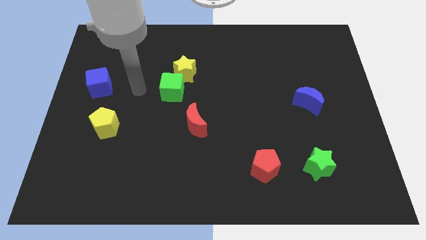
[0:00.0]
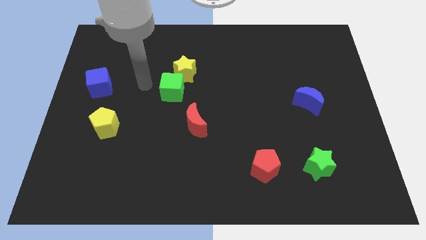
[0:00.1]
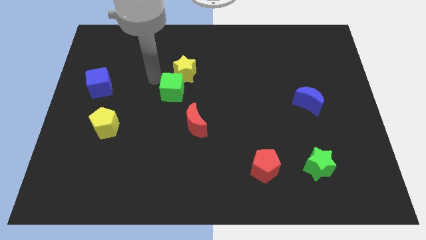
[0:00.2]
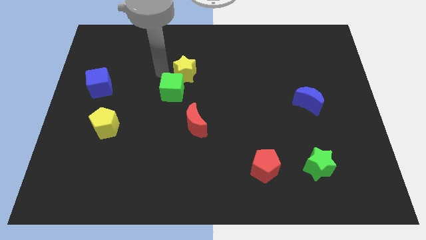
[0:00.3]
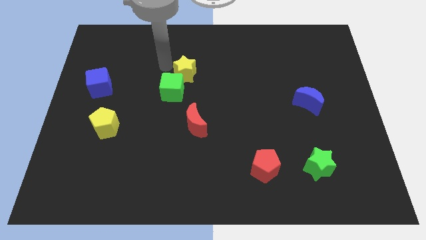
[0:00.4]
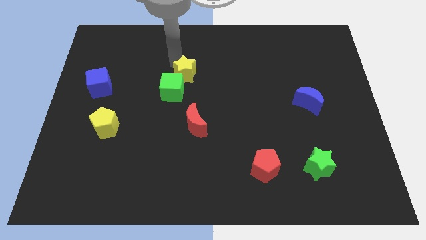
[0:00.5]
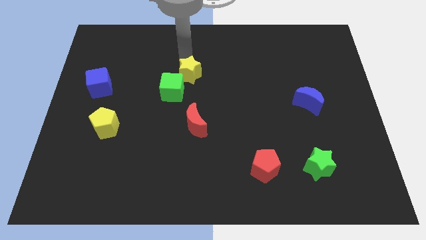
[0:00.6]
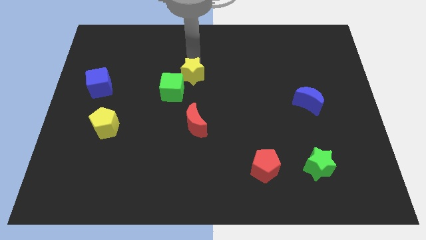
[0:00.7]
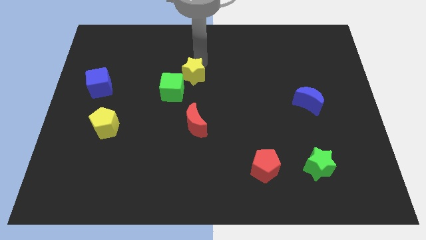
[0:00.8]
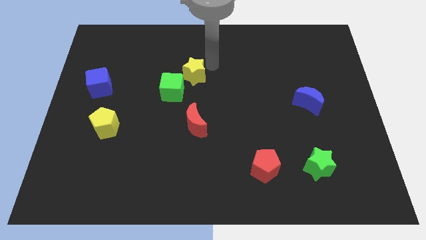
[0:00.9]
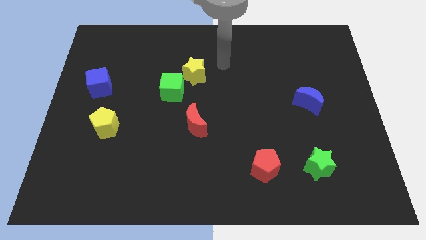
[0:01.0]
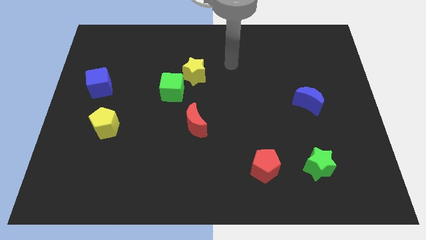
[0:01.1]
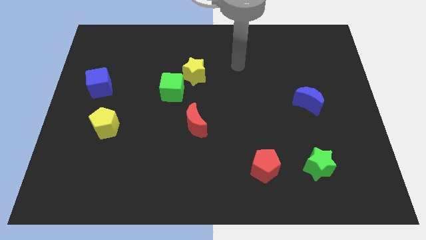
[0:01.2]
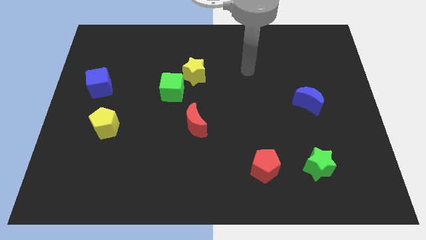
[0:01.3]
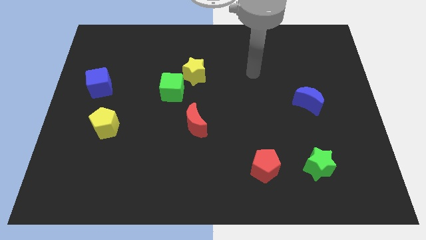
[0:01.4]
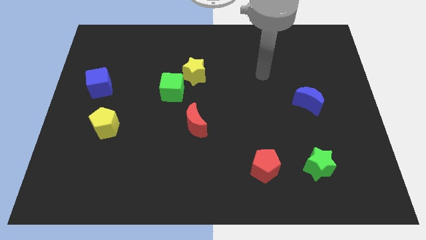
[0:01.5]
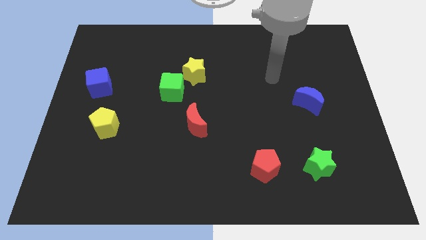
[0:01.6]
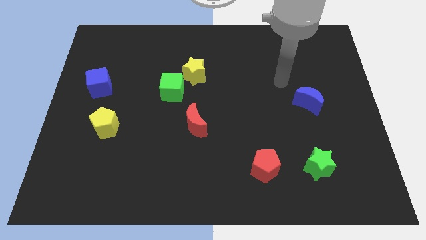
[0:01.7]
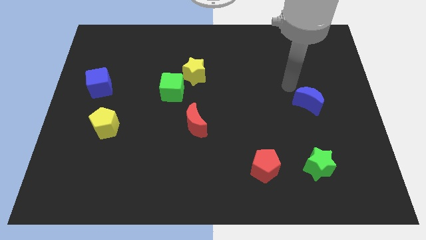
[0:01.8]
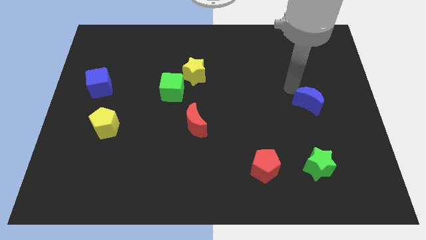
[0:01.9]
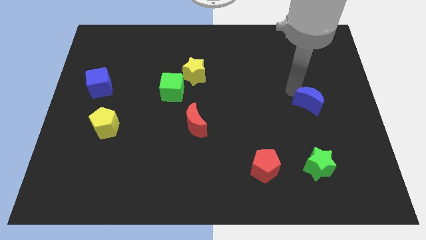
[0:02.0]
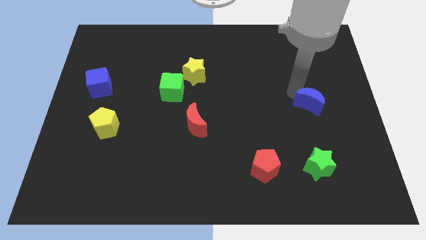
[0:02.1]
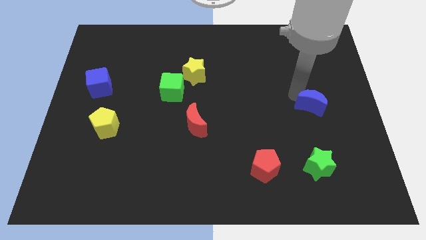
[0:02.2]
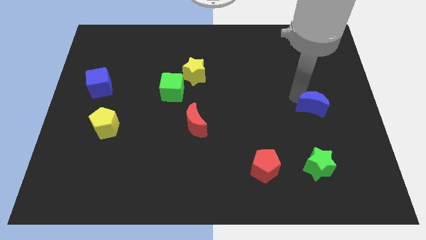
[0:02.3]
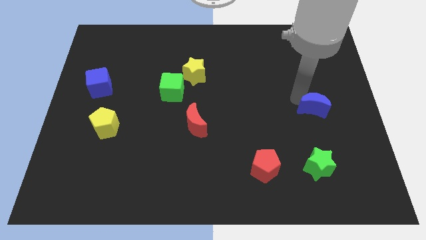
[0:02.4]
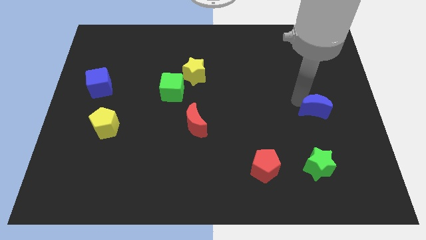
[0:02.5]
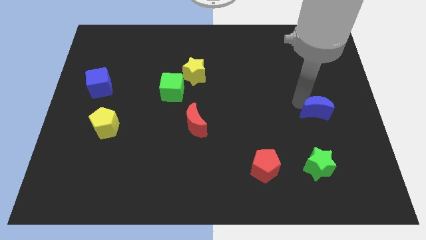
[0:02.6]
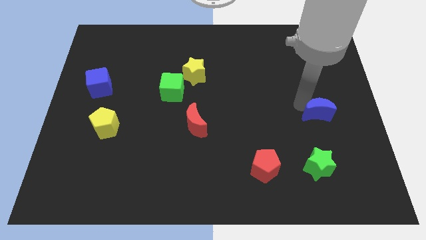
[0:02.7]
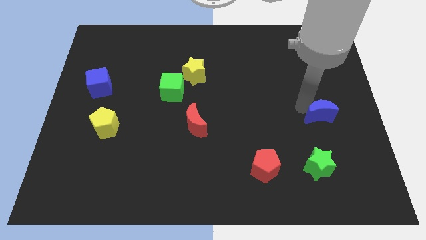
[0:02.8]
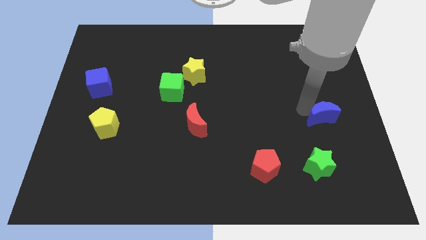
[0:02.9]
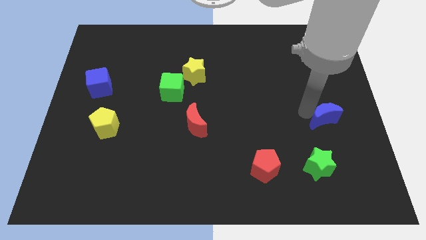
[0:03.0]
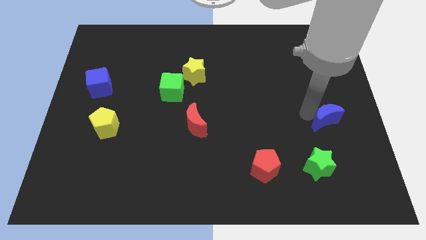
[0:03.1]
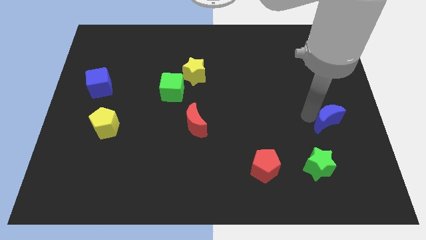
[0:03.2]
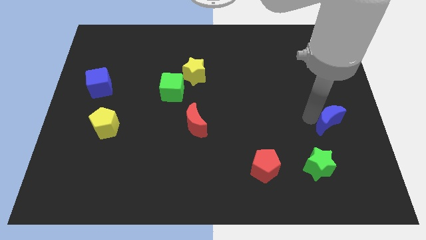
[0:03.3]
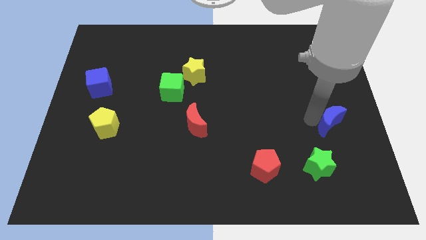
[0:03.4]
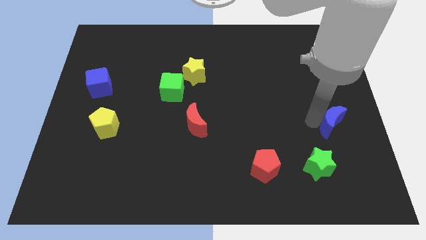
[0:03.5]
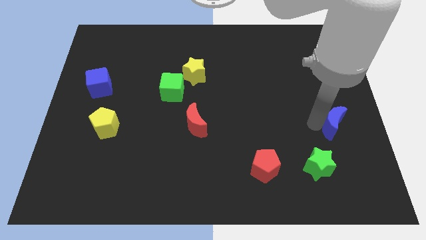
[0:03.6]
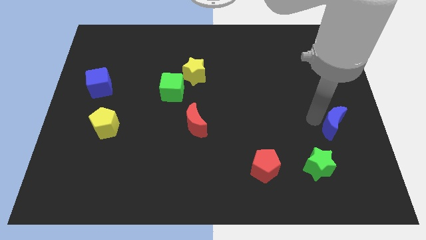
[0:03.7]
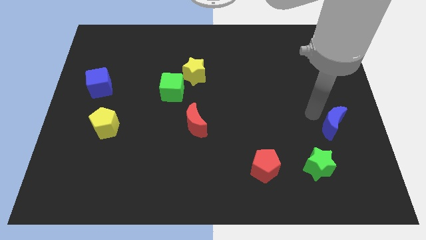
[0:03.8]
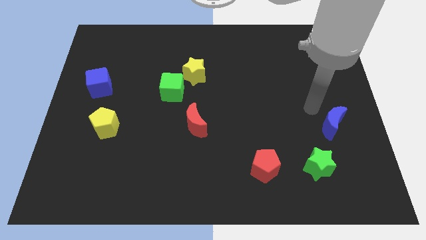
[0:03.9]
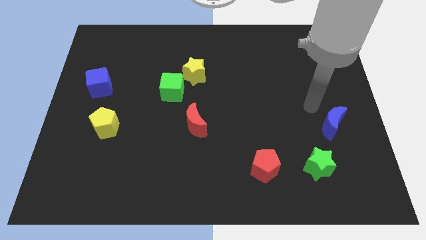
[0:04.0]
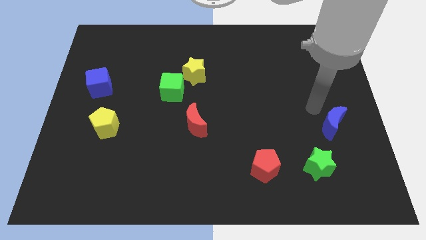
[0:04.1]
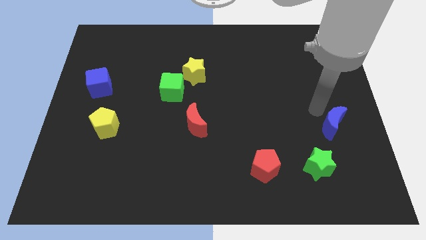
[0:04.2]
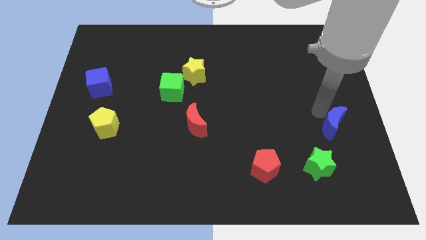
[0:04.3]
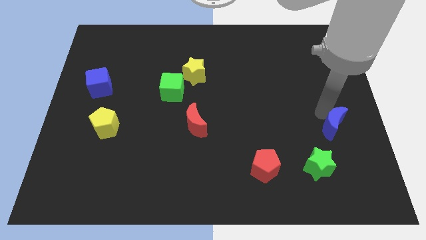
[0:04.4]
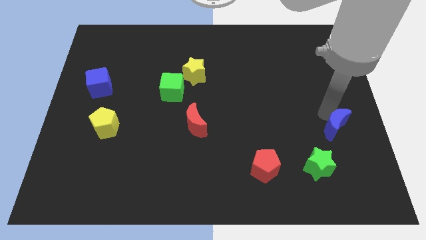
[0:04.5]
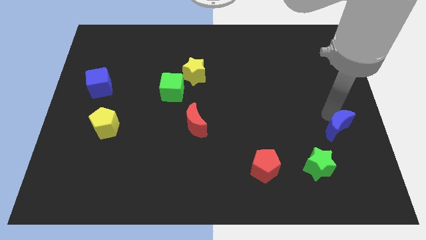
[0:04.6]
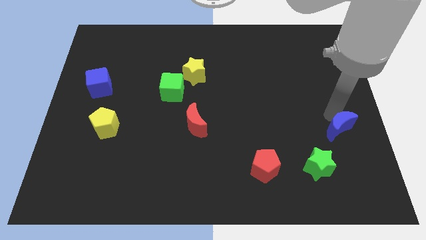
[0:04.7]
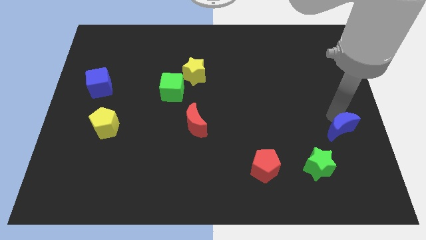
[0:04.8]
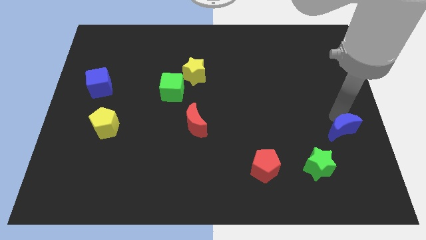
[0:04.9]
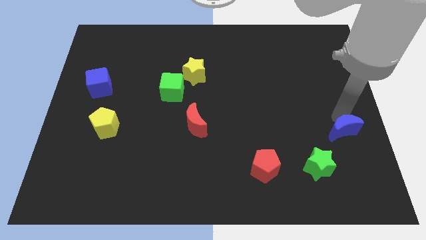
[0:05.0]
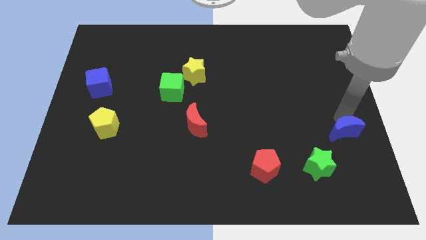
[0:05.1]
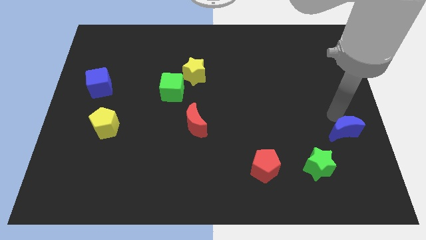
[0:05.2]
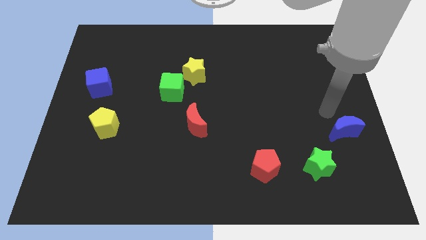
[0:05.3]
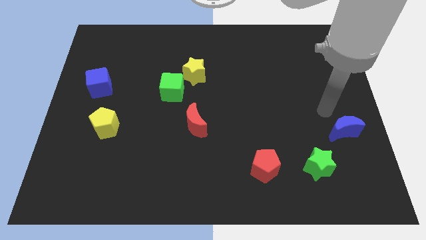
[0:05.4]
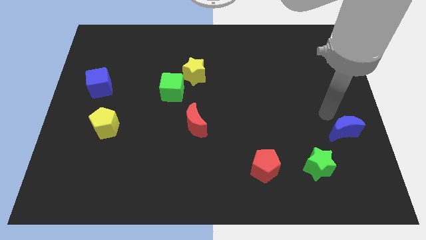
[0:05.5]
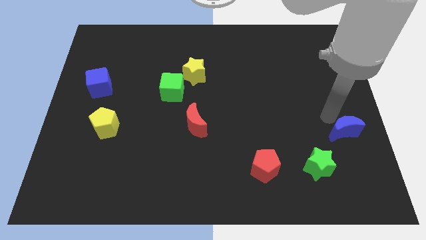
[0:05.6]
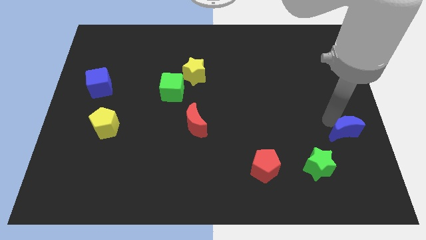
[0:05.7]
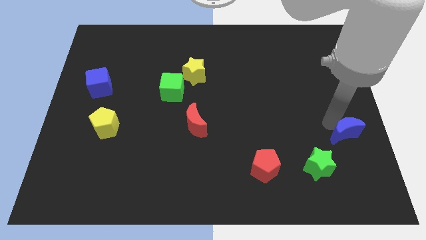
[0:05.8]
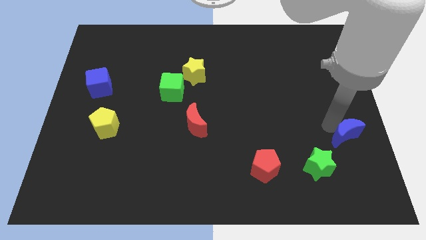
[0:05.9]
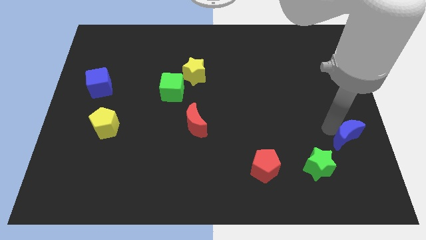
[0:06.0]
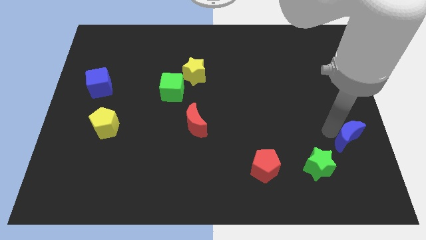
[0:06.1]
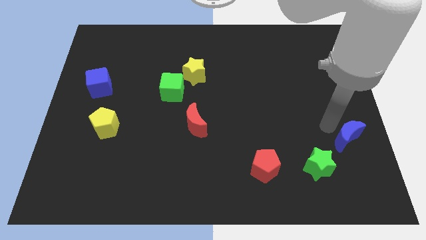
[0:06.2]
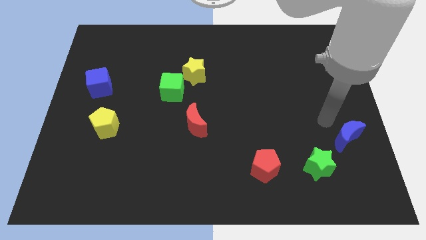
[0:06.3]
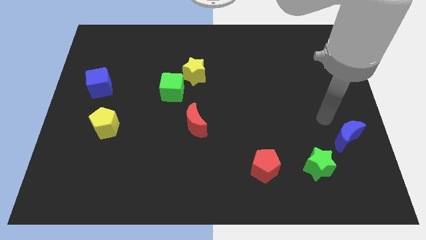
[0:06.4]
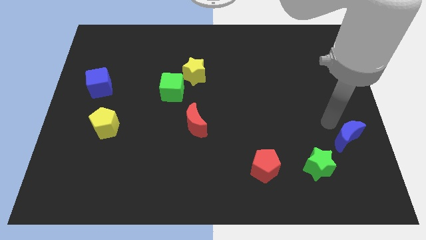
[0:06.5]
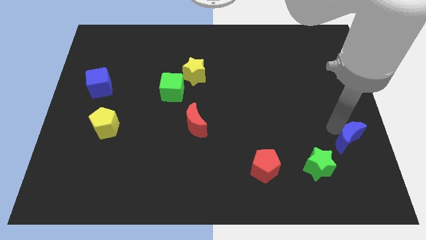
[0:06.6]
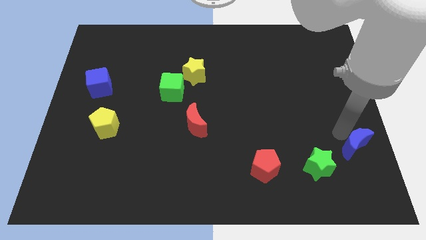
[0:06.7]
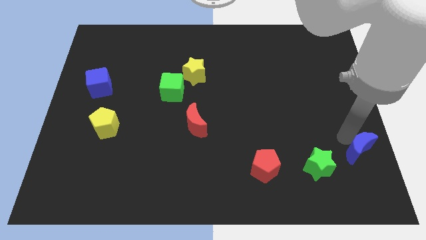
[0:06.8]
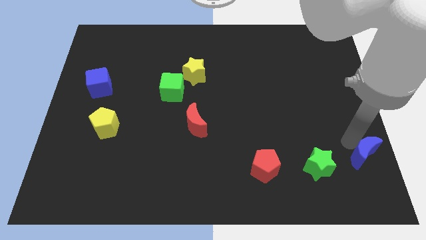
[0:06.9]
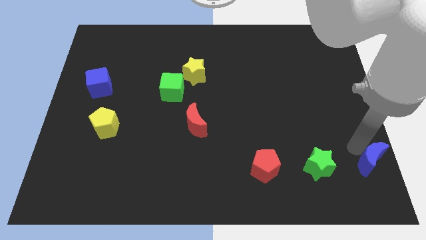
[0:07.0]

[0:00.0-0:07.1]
move the blue moon to the bottom right
